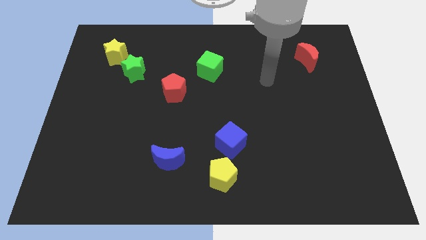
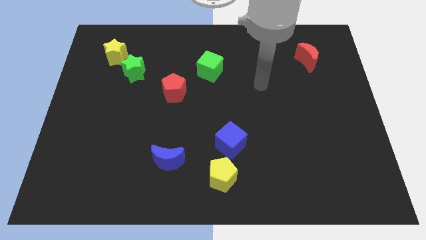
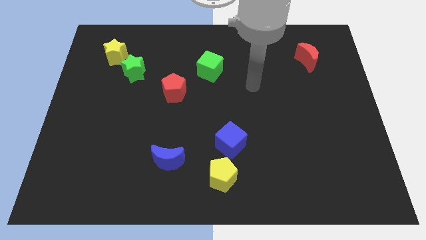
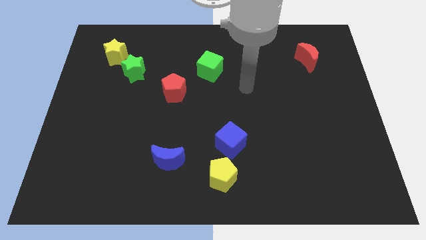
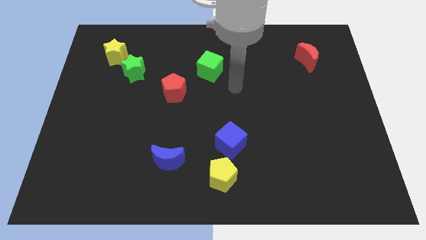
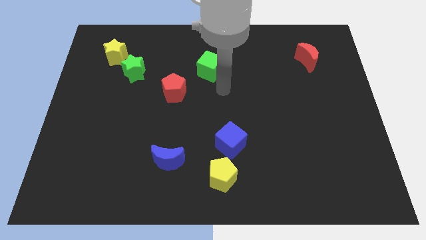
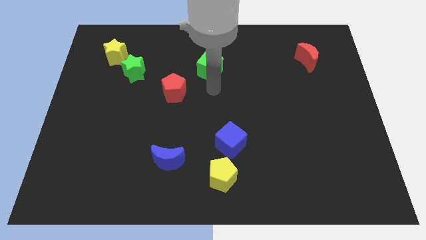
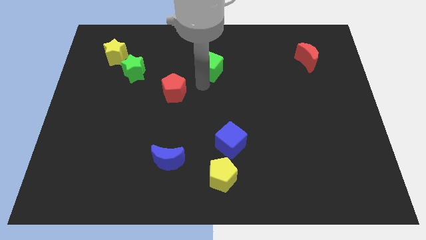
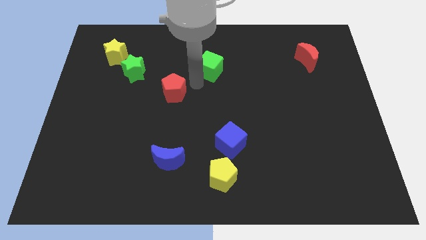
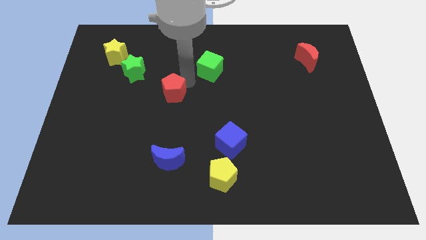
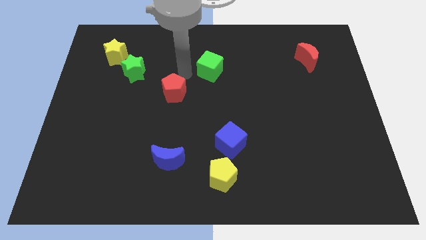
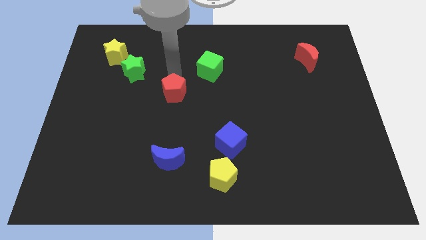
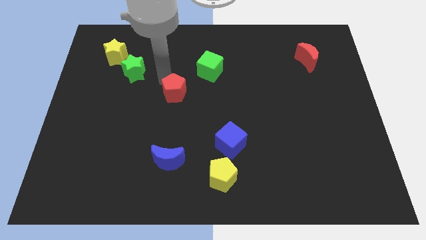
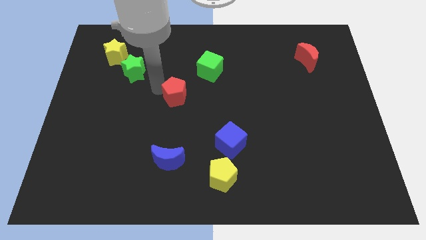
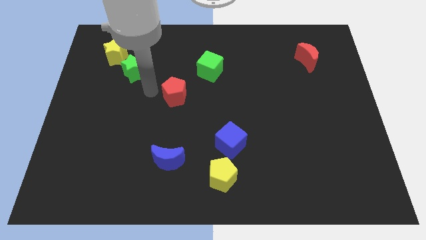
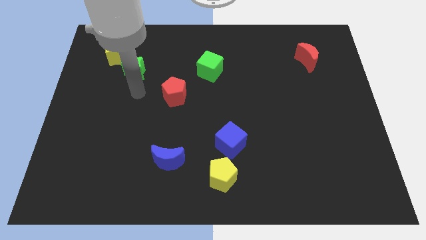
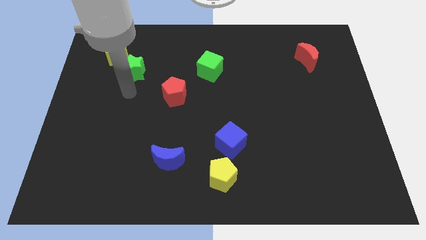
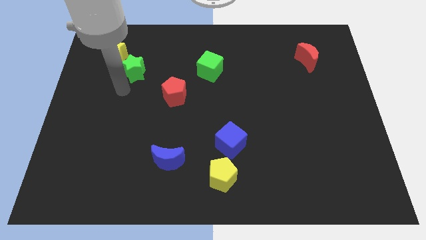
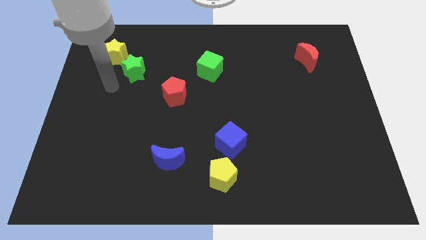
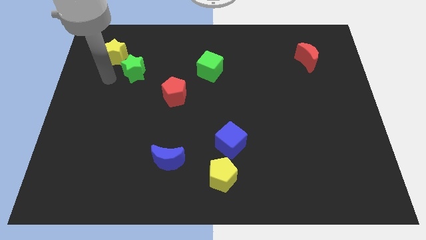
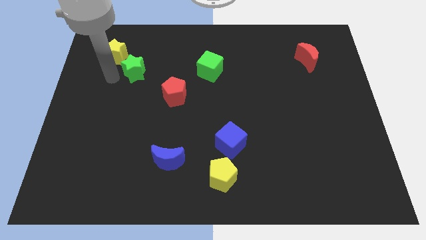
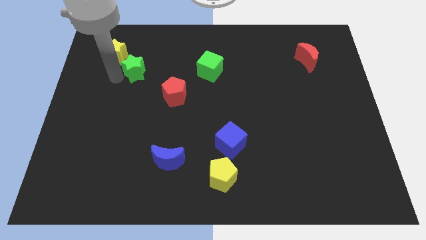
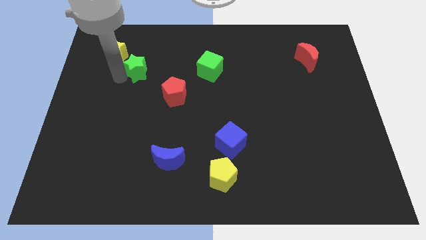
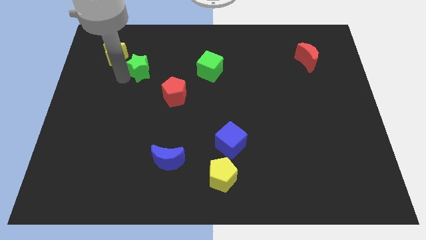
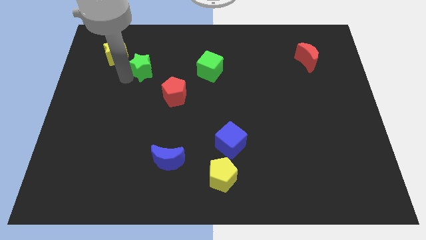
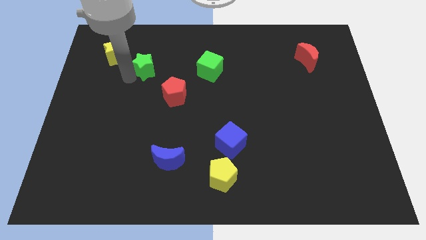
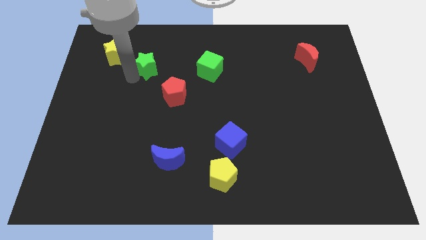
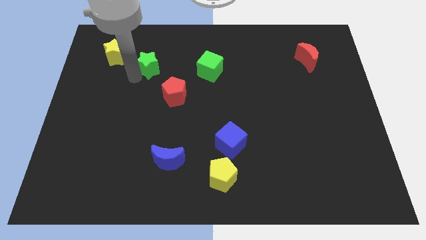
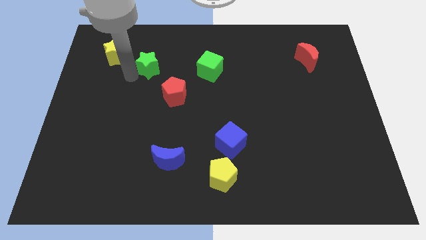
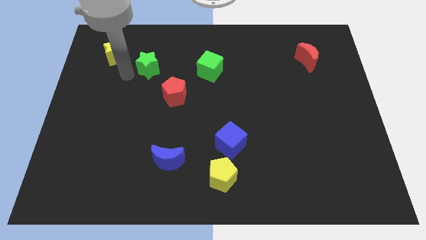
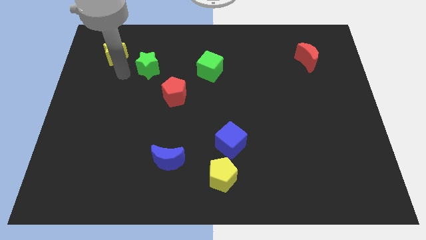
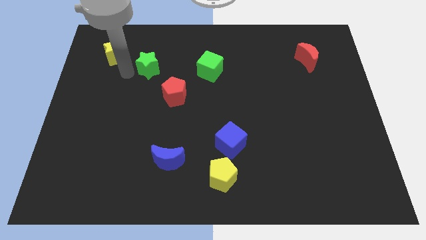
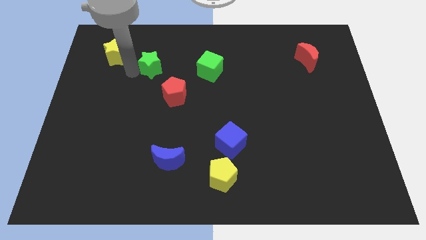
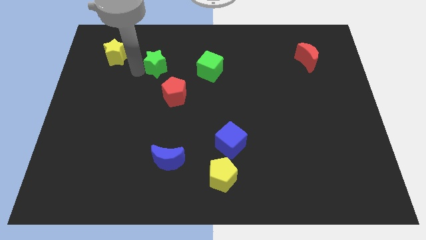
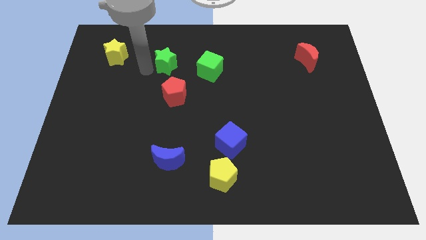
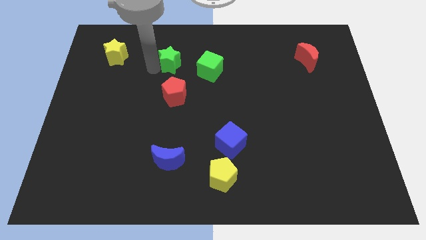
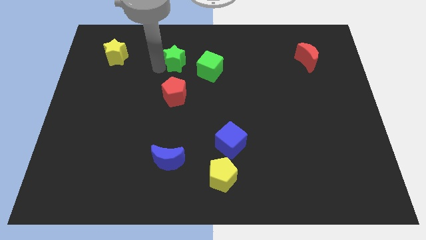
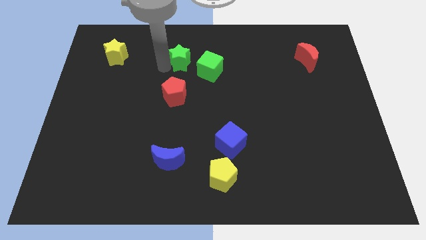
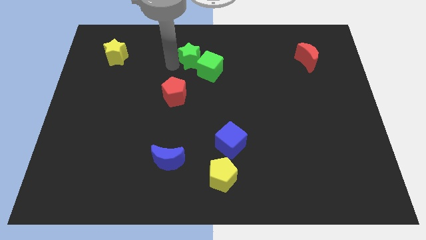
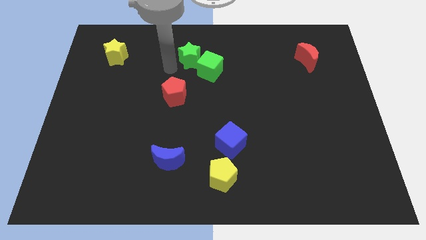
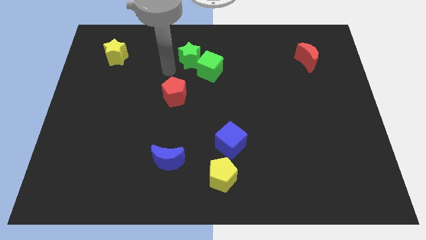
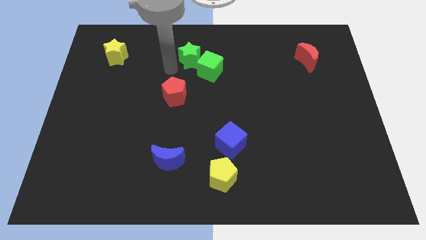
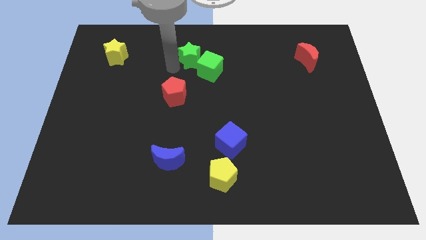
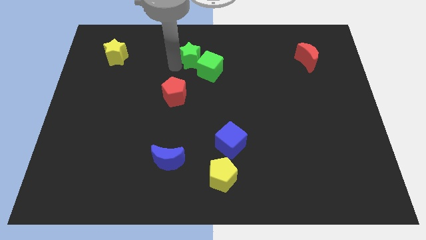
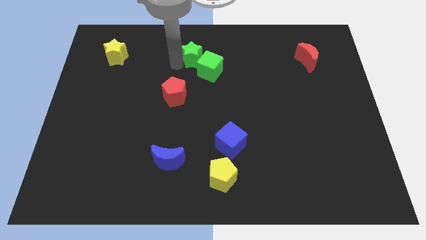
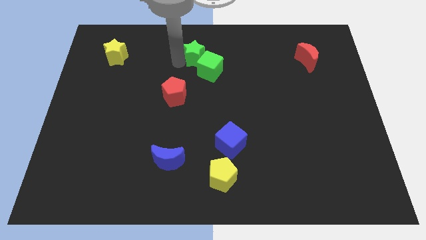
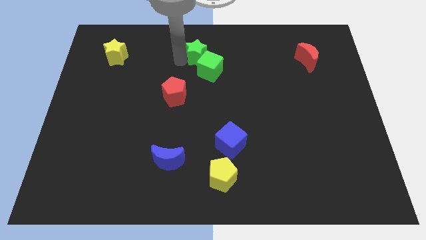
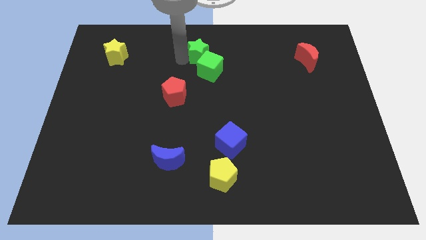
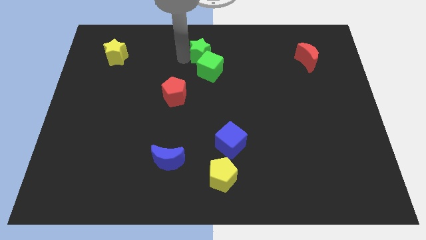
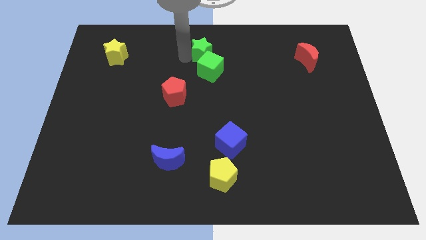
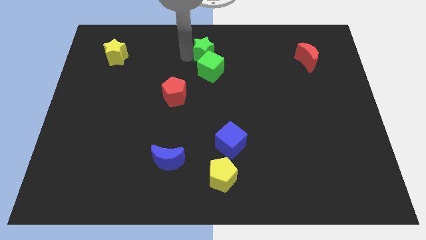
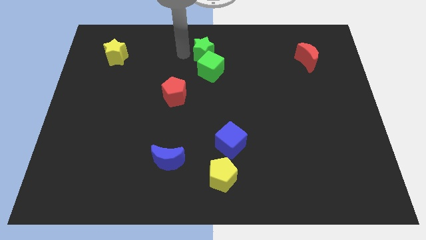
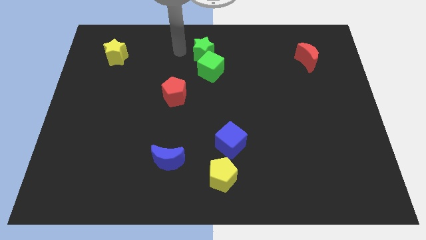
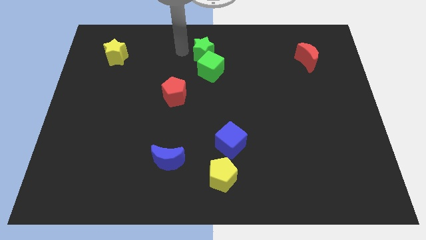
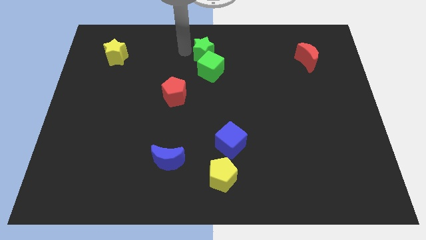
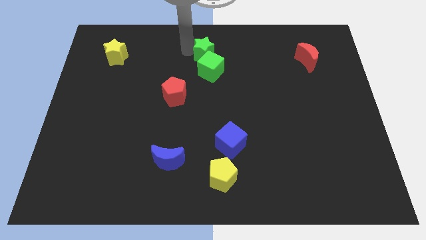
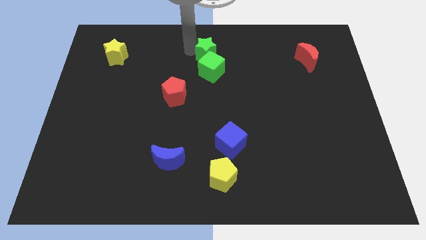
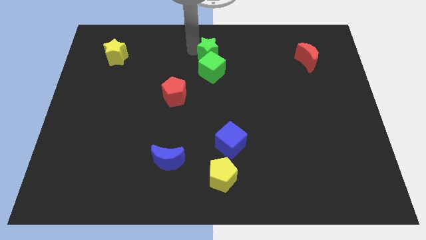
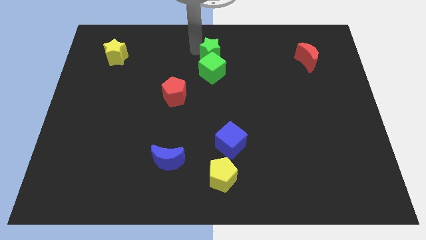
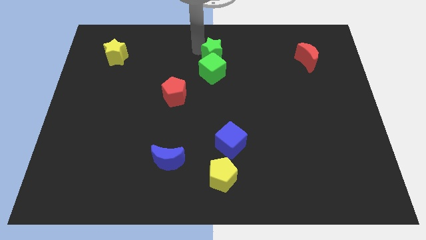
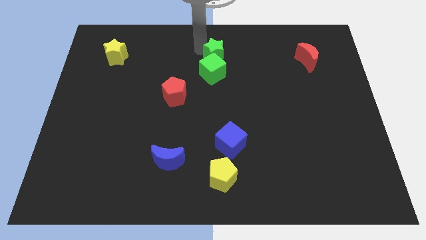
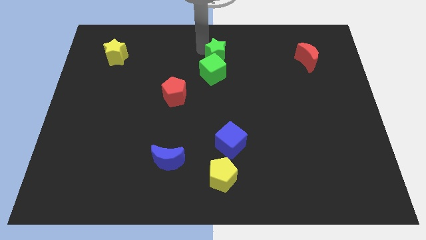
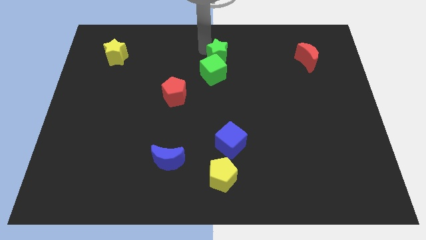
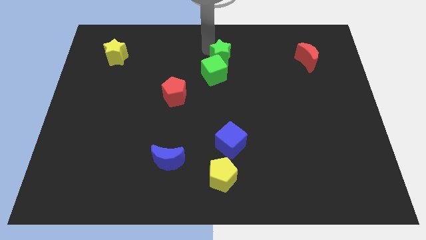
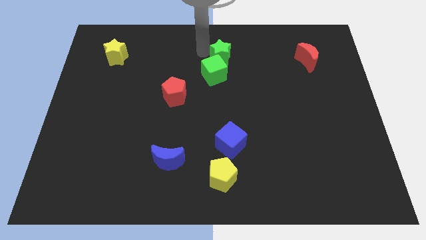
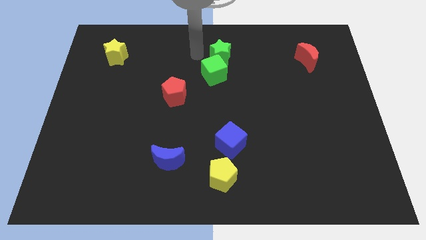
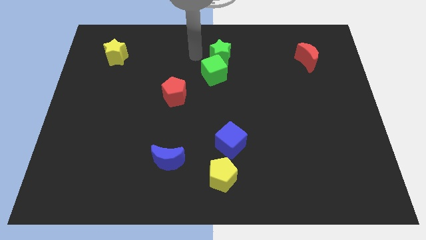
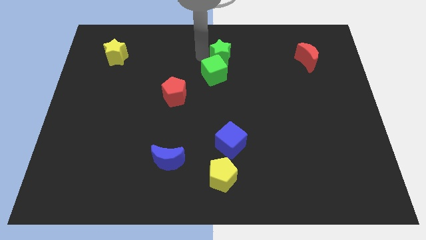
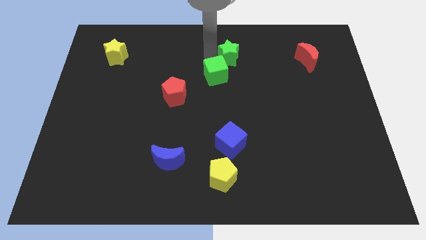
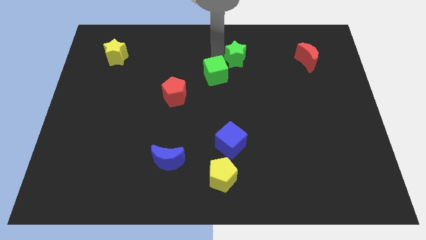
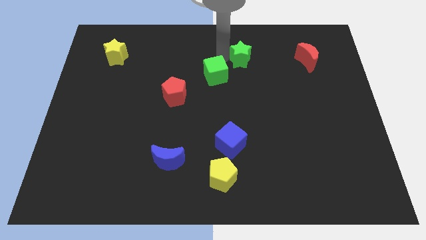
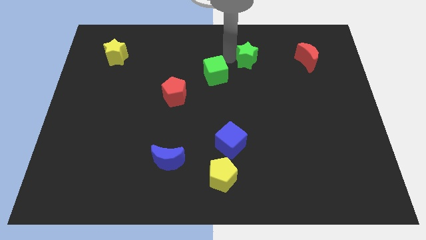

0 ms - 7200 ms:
move the green star left of the red moon

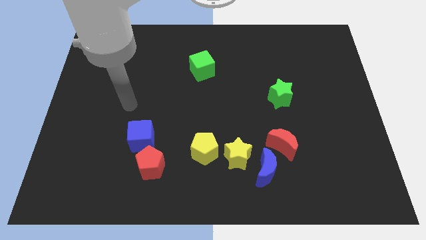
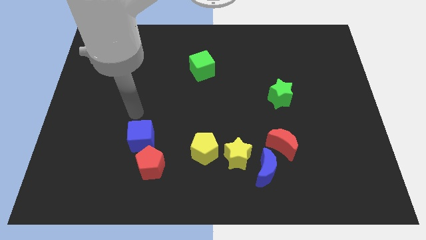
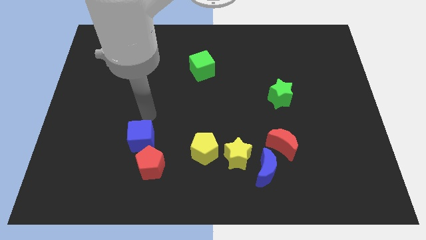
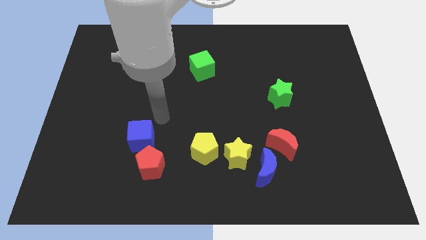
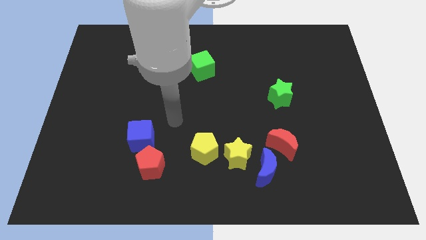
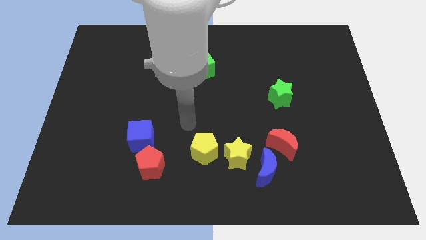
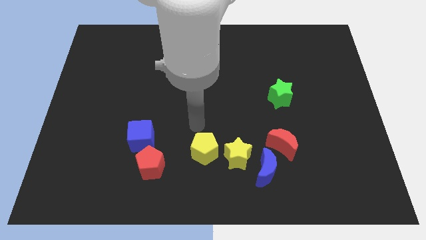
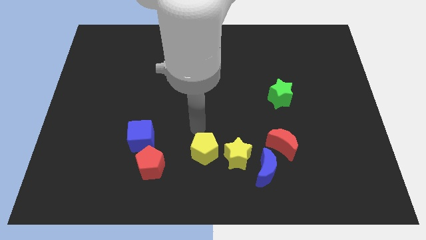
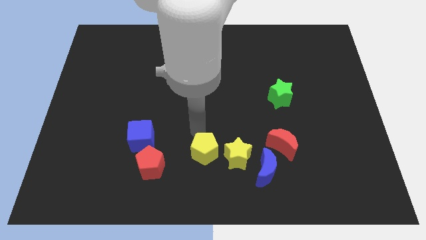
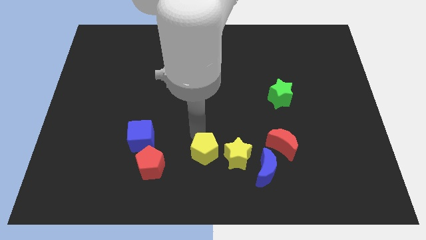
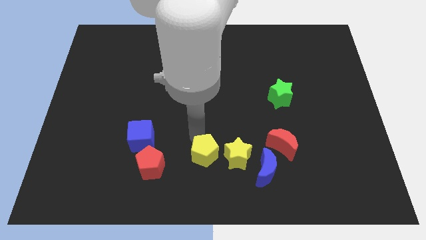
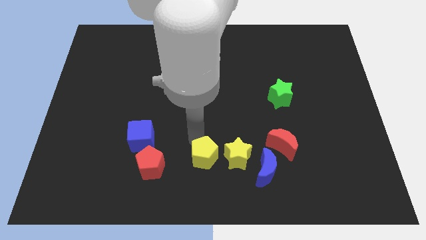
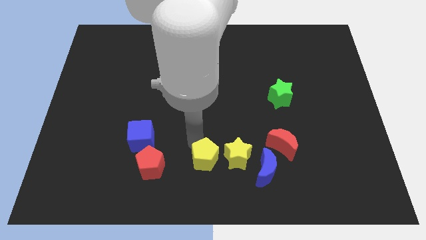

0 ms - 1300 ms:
slide the yellow pentagon to the bottom left of the yellow star

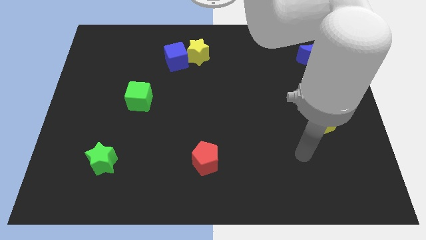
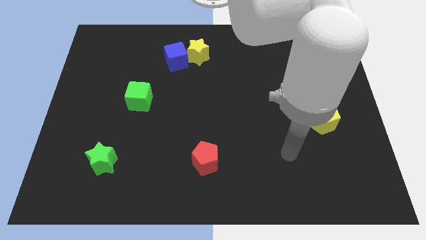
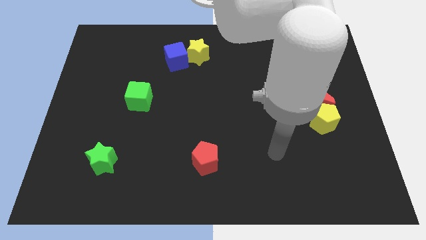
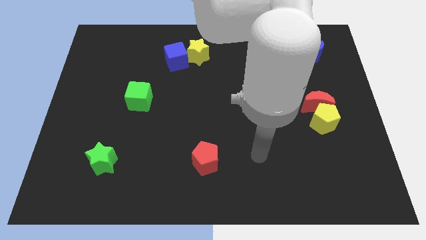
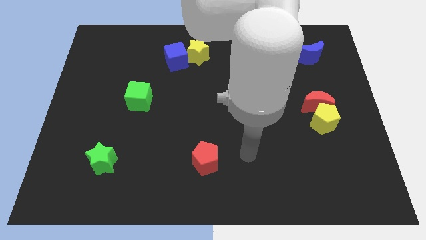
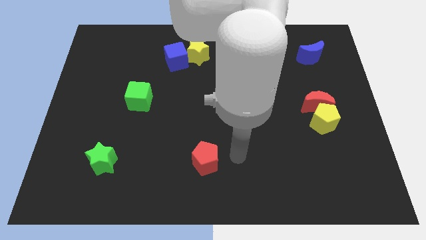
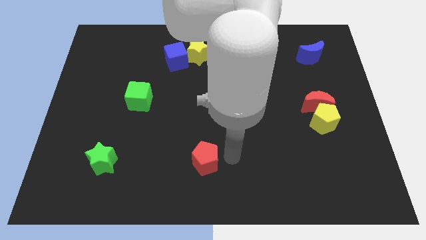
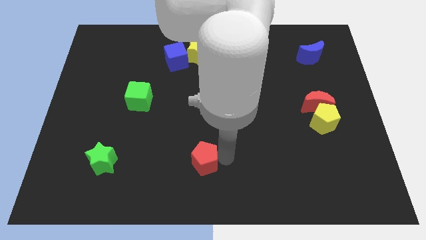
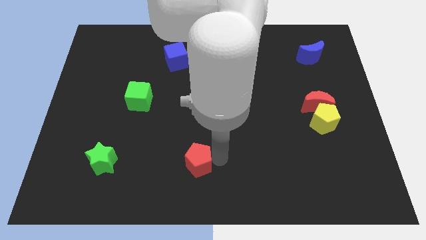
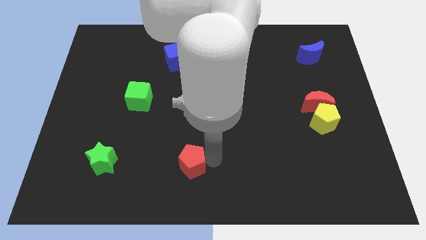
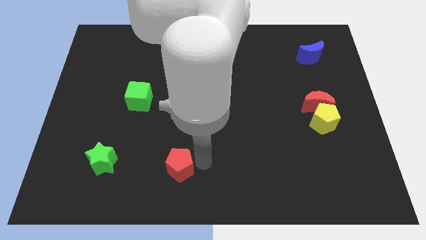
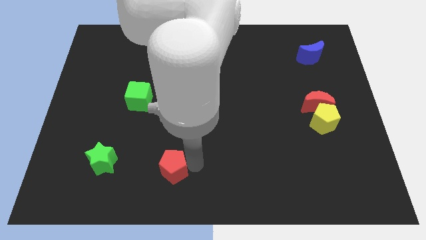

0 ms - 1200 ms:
slide the red pentagon to the right of the green star
